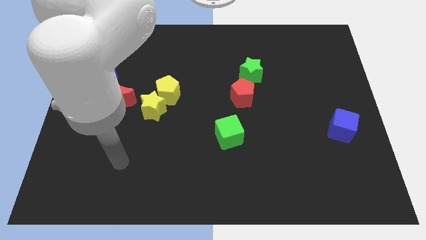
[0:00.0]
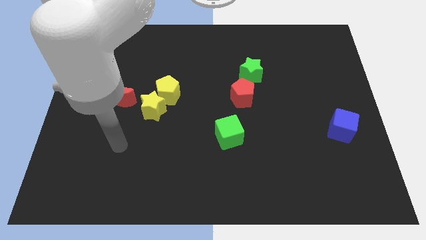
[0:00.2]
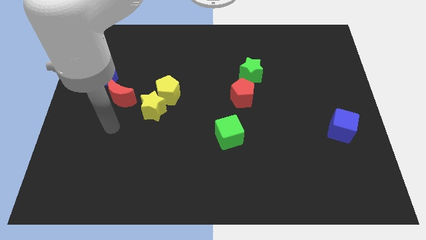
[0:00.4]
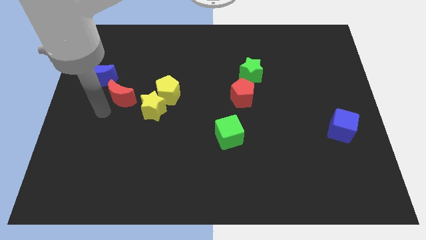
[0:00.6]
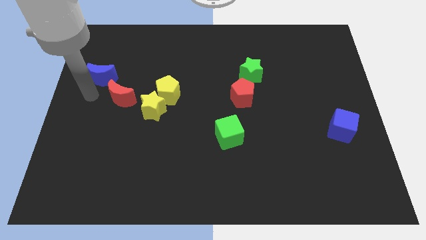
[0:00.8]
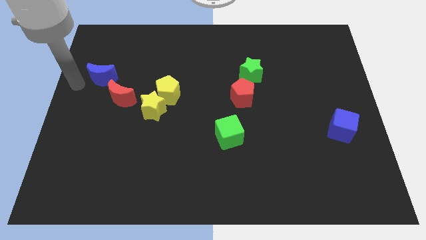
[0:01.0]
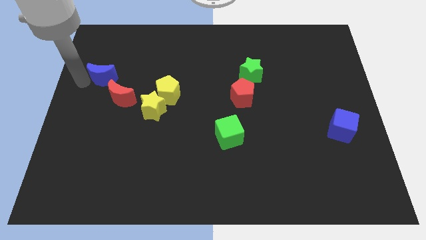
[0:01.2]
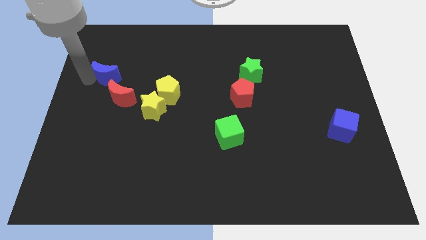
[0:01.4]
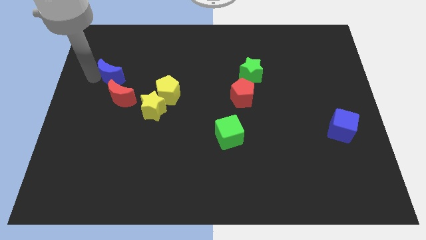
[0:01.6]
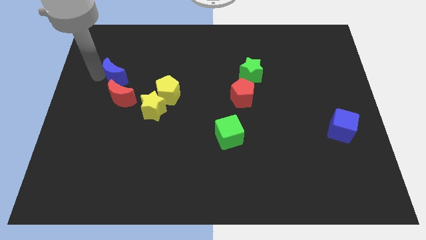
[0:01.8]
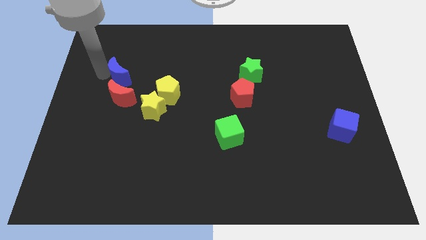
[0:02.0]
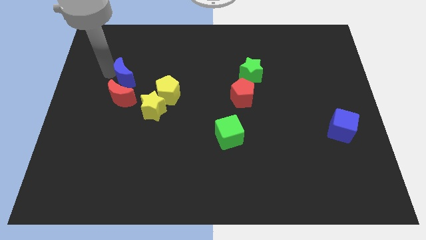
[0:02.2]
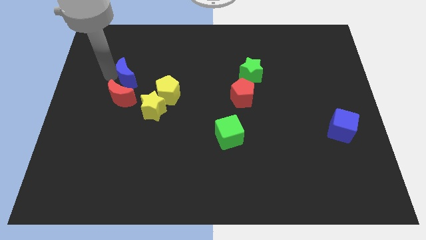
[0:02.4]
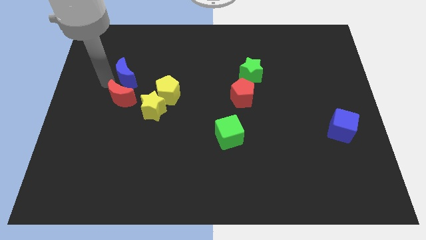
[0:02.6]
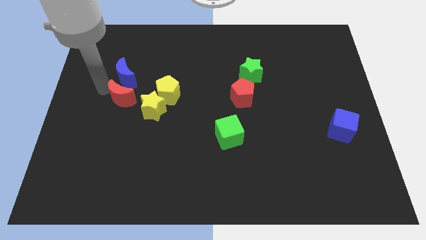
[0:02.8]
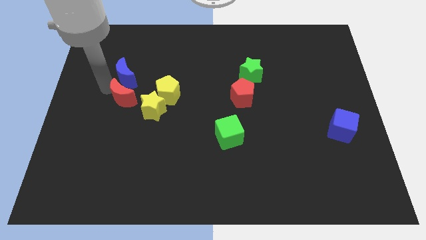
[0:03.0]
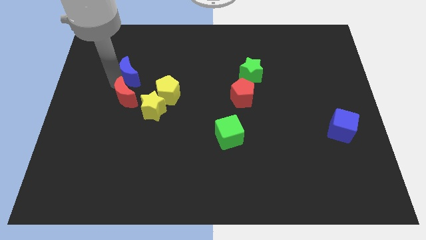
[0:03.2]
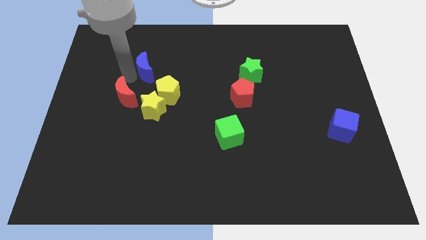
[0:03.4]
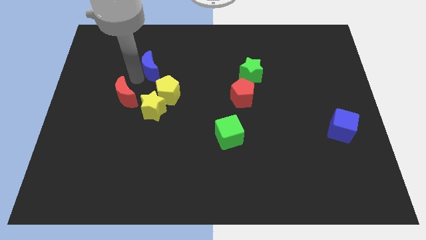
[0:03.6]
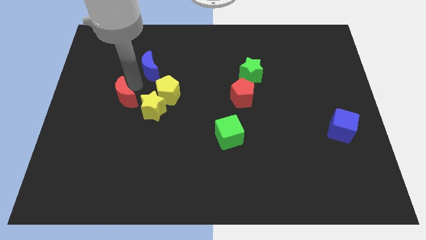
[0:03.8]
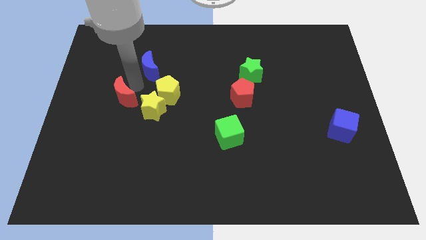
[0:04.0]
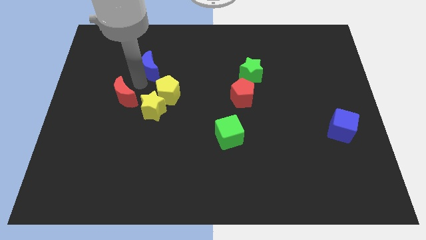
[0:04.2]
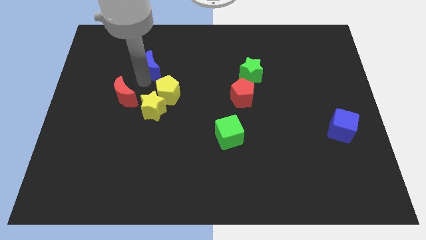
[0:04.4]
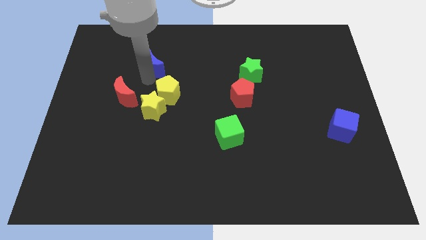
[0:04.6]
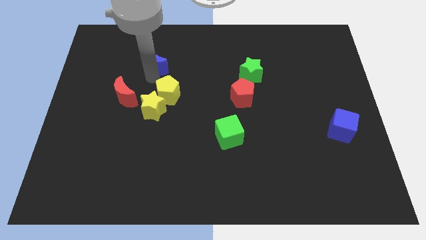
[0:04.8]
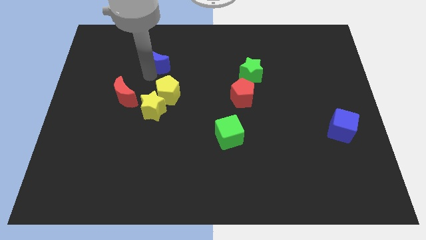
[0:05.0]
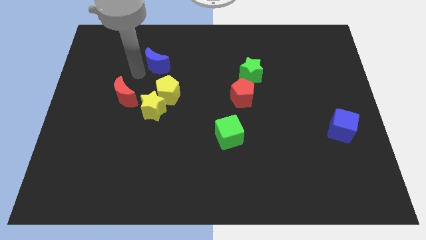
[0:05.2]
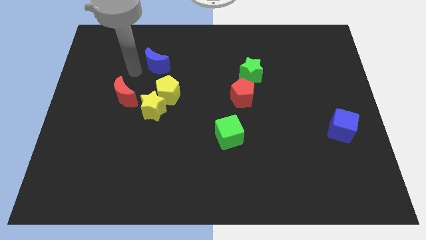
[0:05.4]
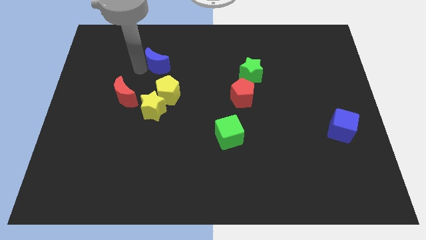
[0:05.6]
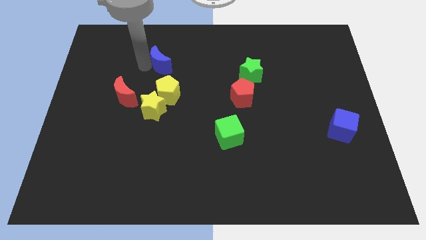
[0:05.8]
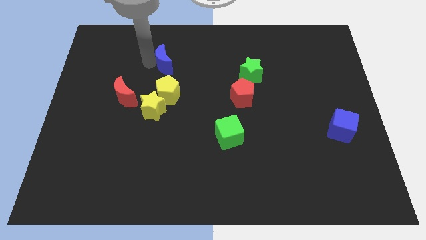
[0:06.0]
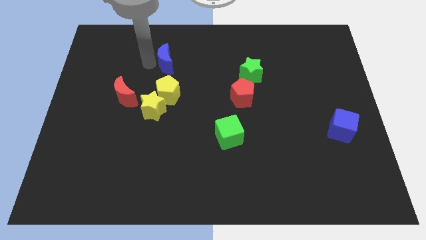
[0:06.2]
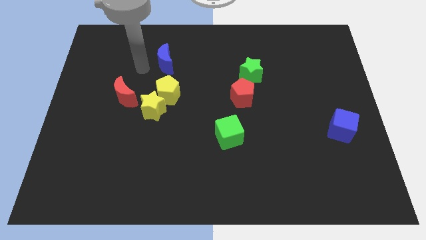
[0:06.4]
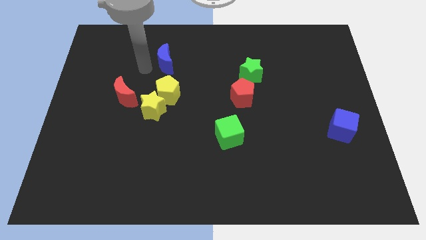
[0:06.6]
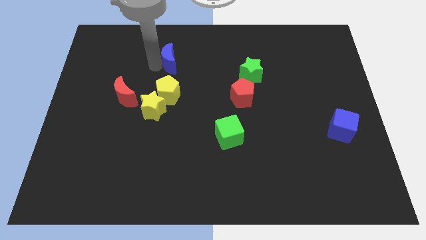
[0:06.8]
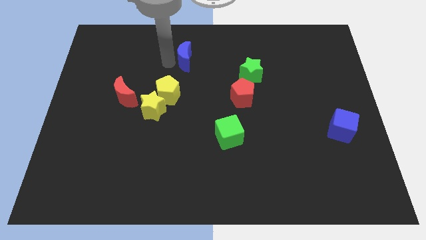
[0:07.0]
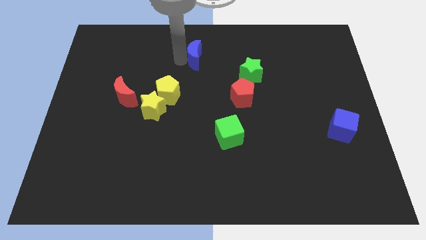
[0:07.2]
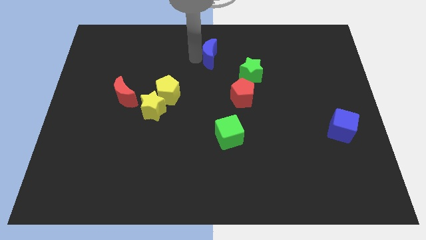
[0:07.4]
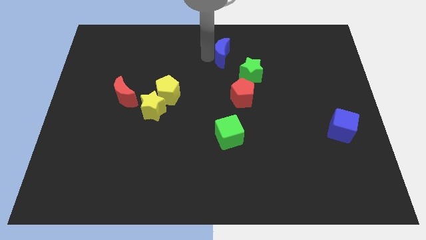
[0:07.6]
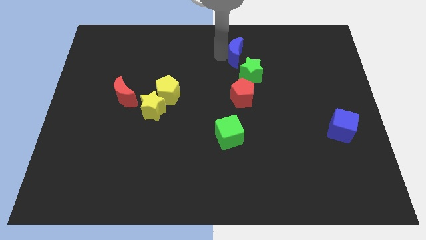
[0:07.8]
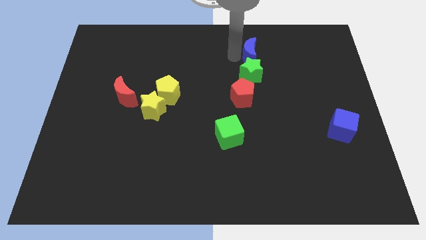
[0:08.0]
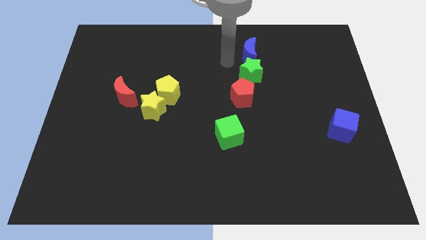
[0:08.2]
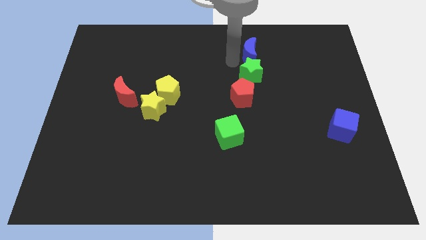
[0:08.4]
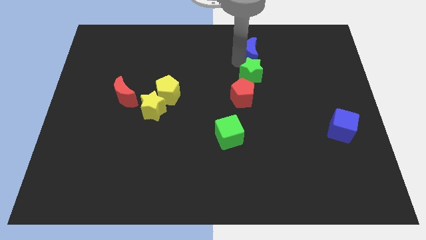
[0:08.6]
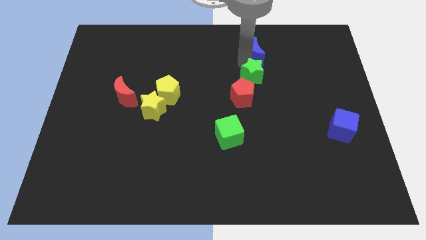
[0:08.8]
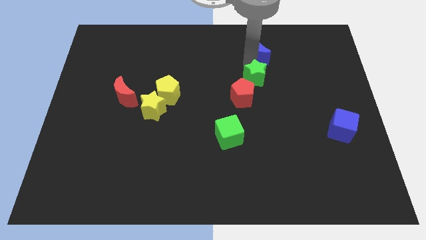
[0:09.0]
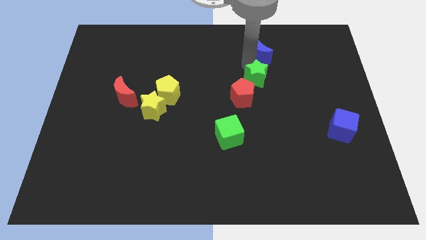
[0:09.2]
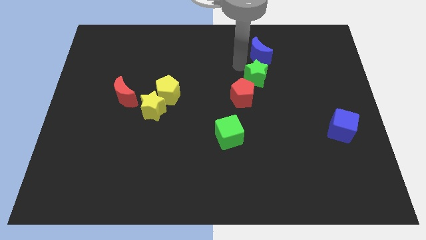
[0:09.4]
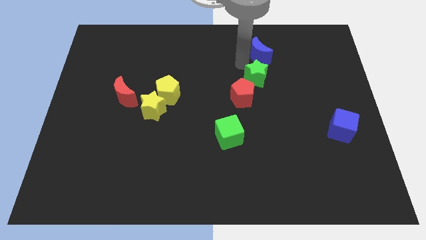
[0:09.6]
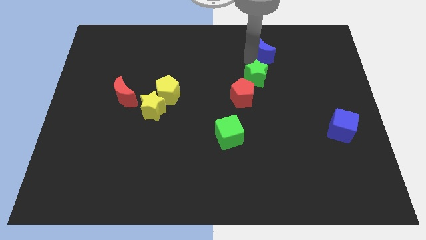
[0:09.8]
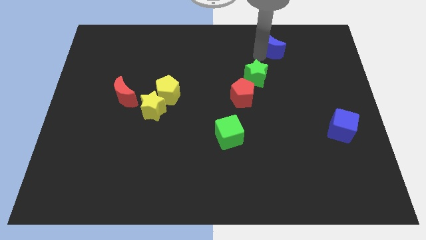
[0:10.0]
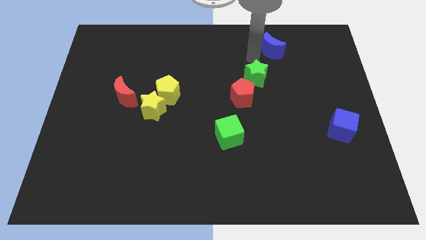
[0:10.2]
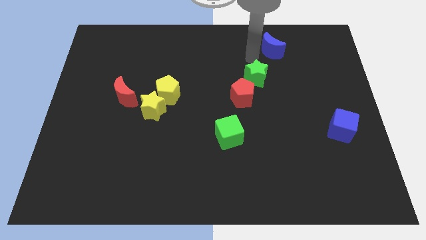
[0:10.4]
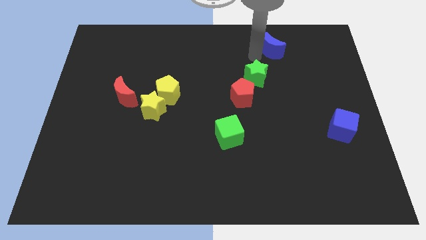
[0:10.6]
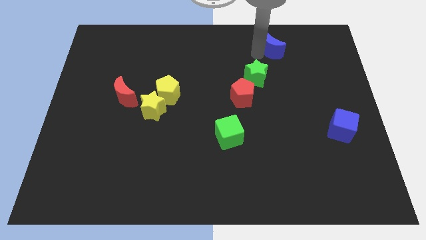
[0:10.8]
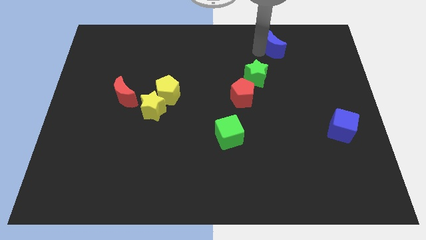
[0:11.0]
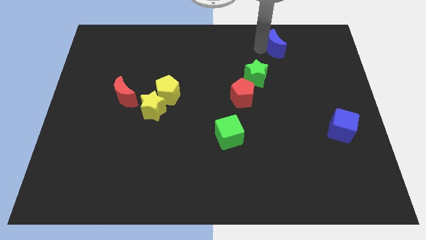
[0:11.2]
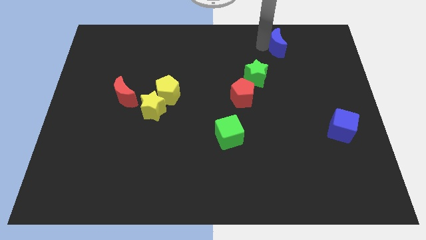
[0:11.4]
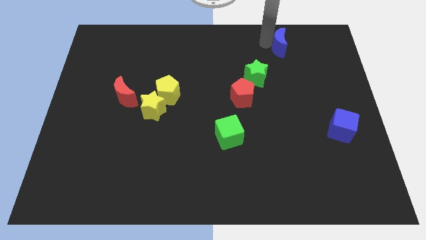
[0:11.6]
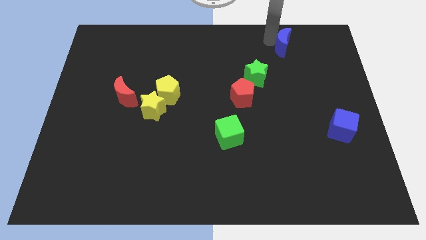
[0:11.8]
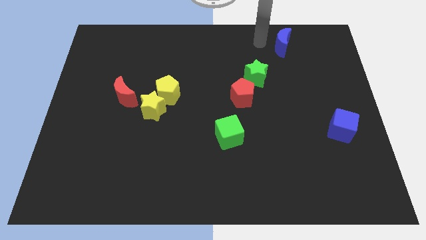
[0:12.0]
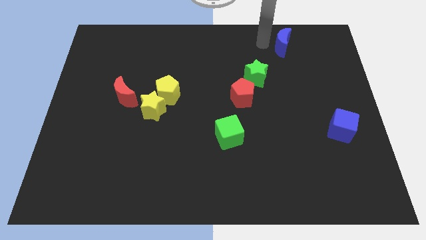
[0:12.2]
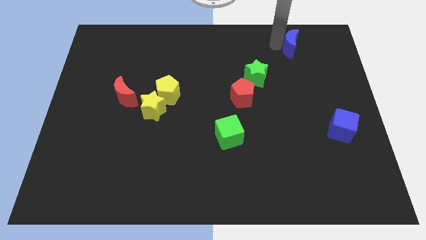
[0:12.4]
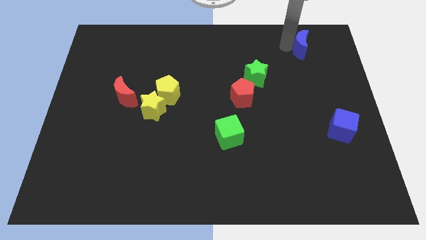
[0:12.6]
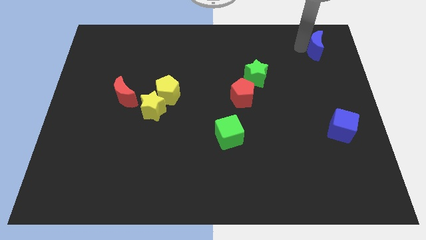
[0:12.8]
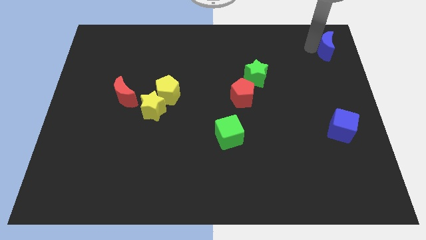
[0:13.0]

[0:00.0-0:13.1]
slide the blue moon to the top right of the board
